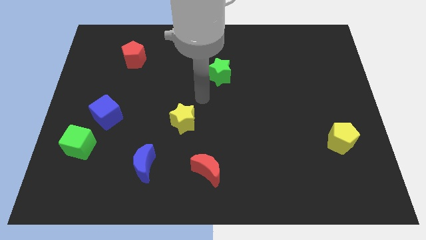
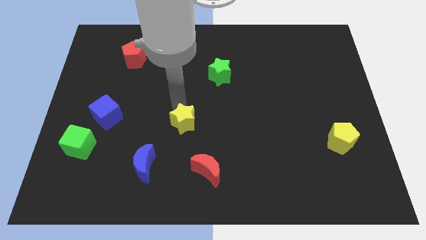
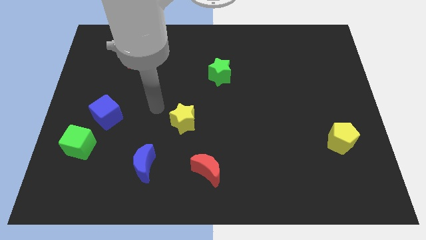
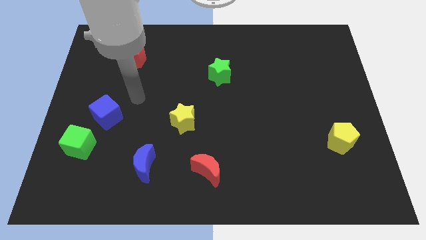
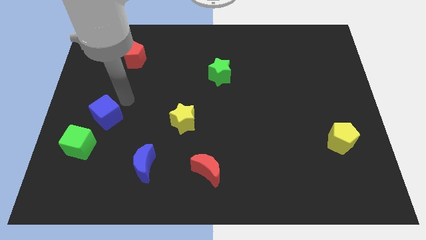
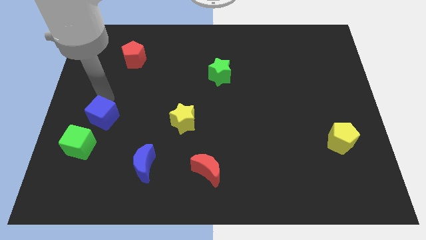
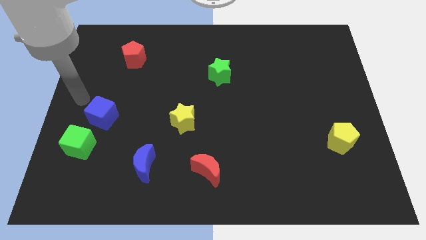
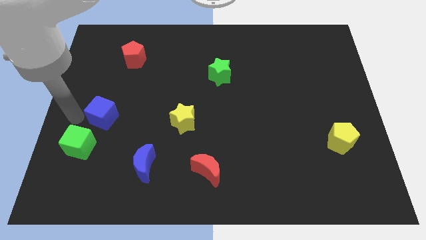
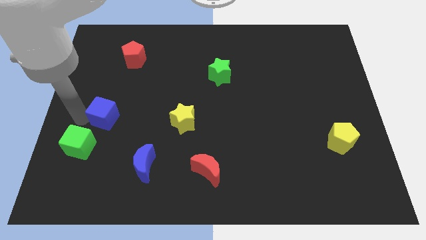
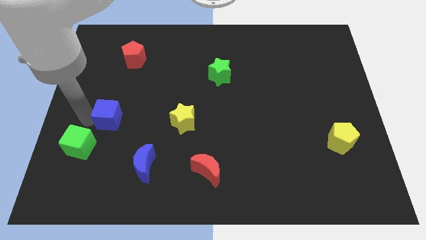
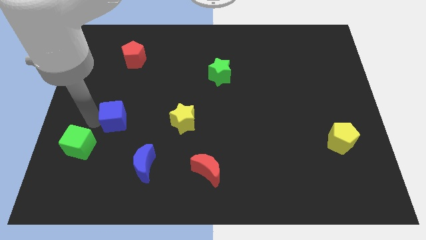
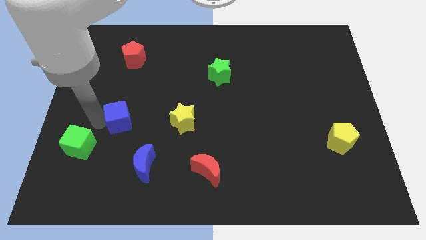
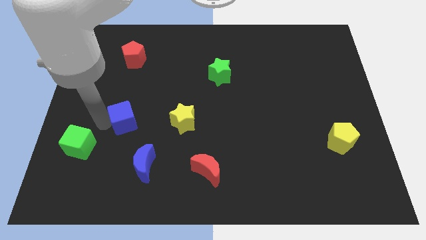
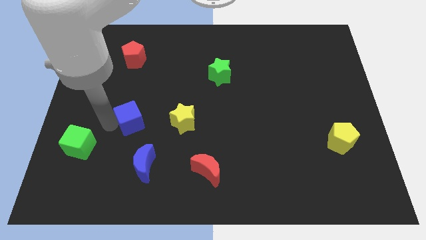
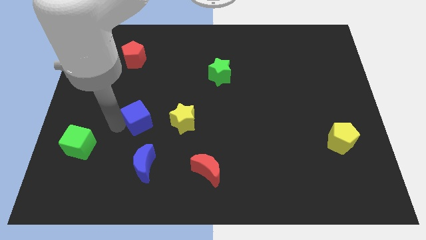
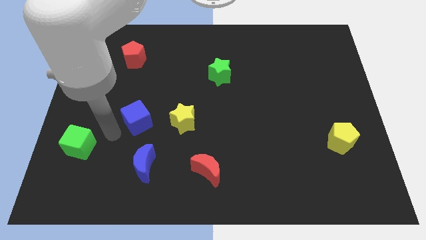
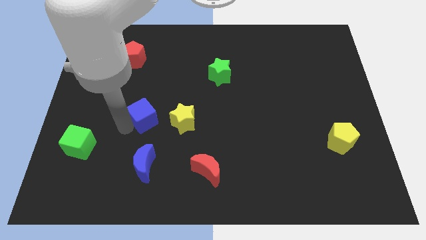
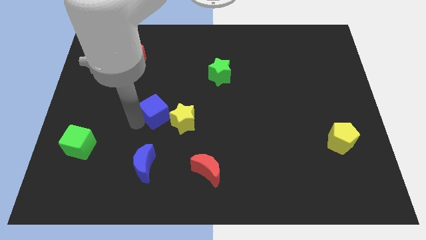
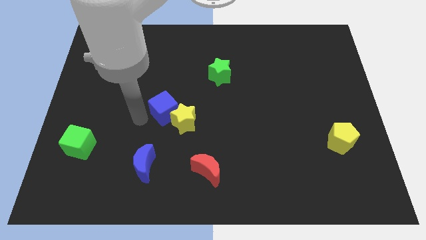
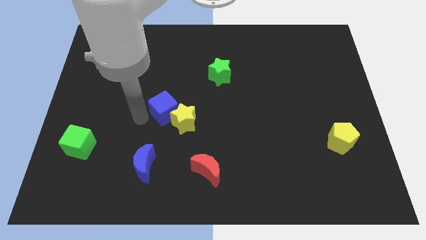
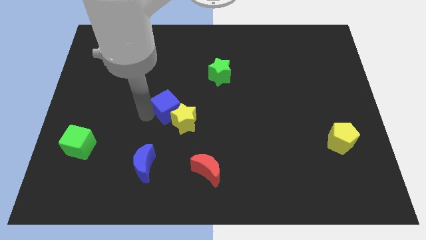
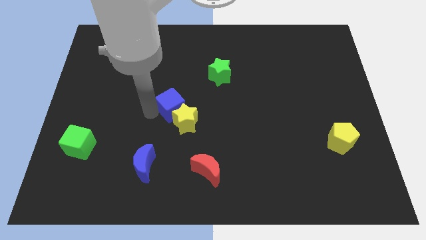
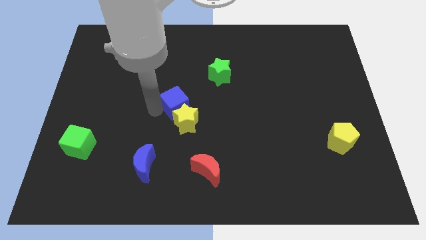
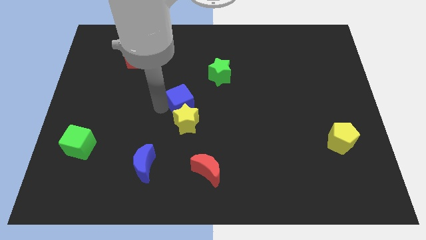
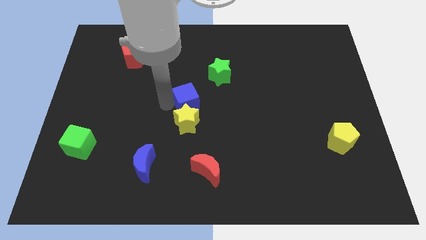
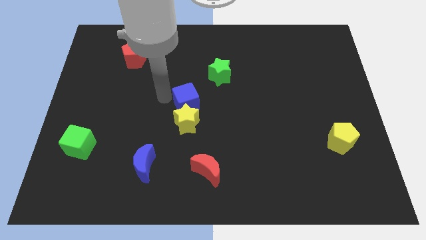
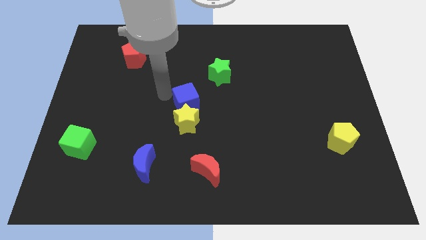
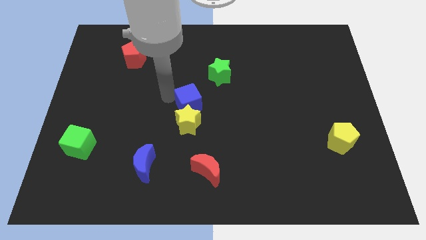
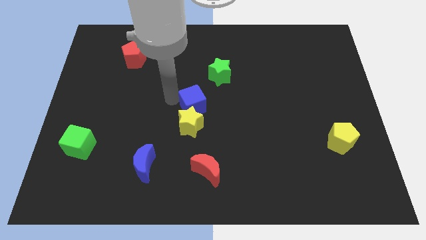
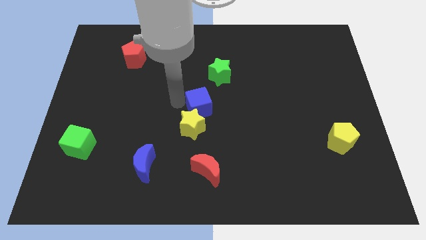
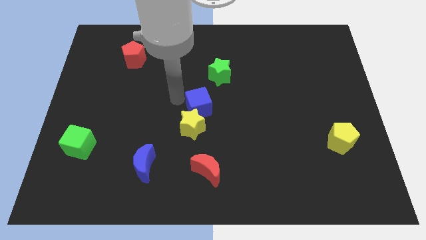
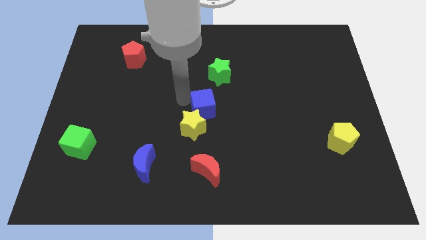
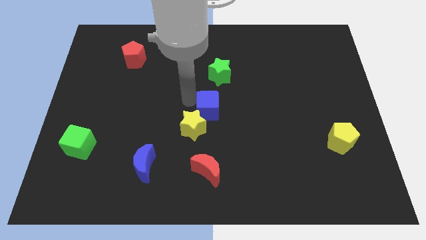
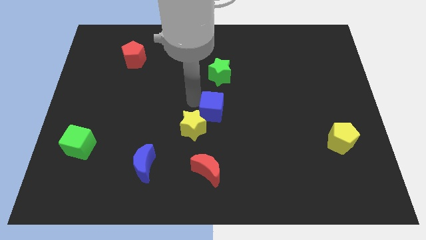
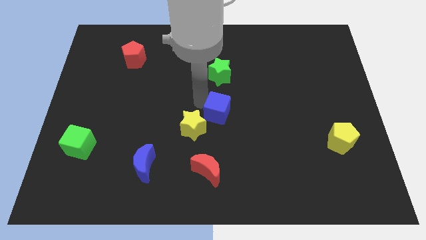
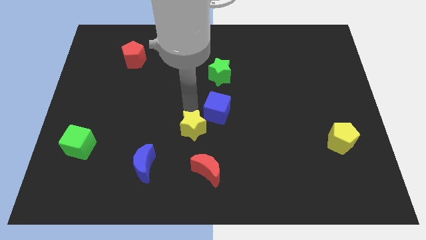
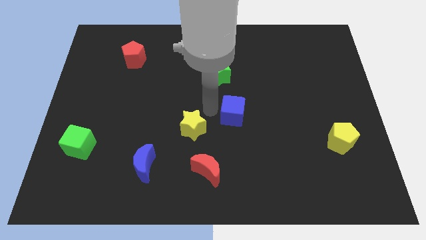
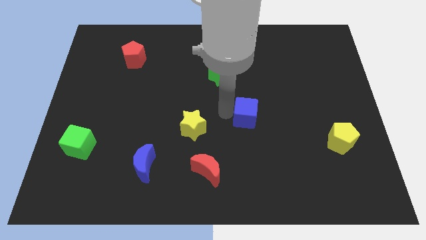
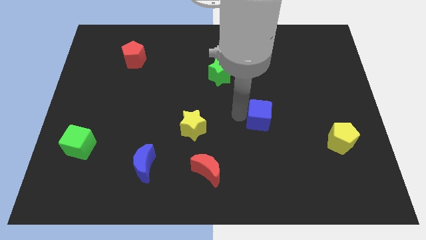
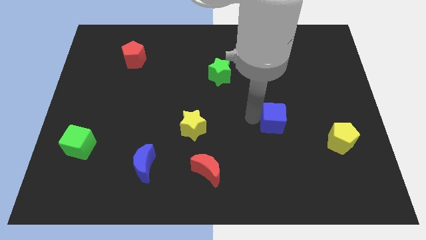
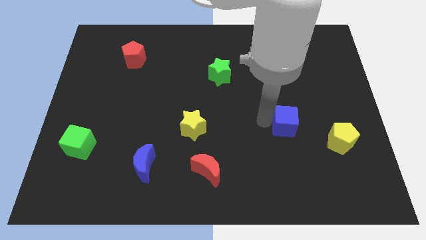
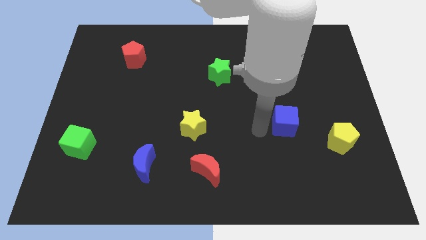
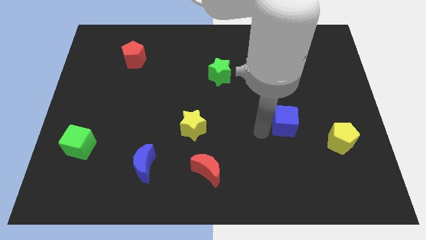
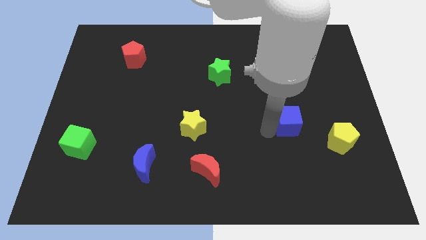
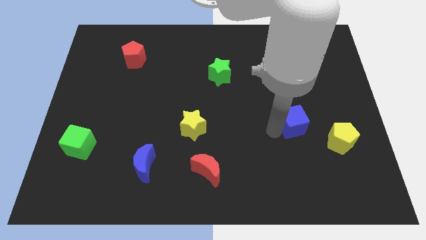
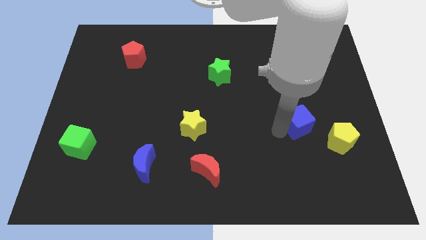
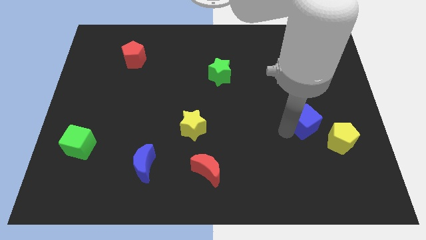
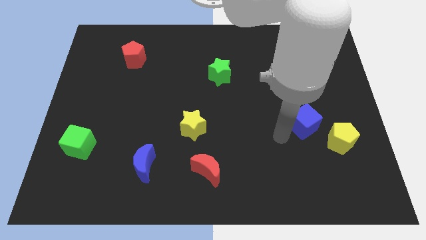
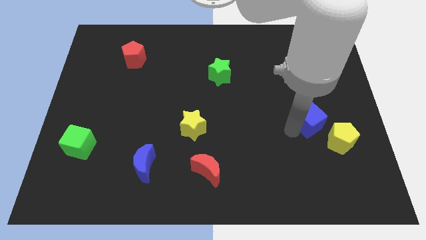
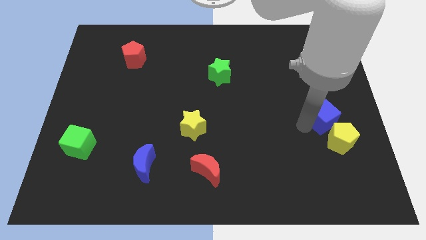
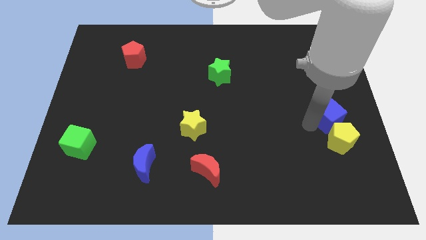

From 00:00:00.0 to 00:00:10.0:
push the blue cube to the right side of the board

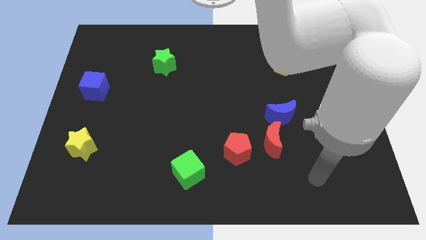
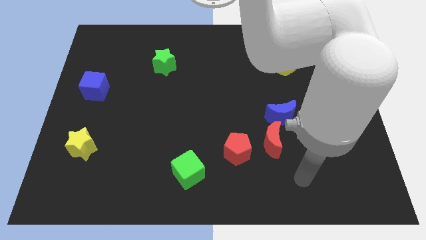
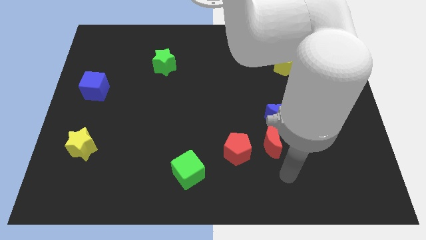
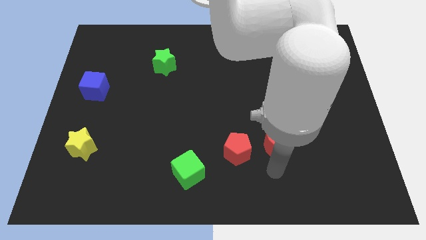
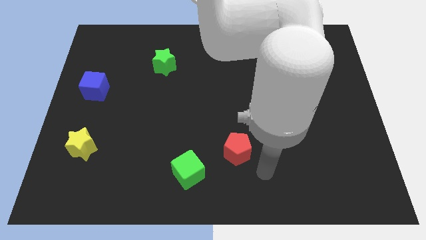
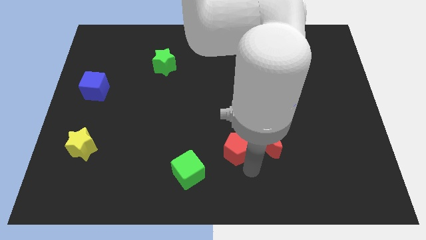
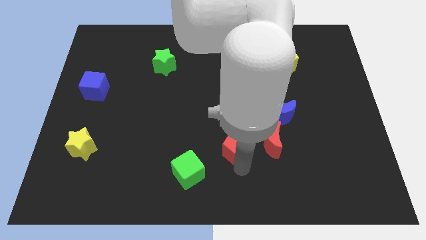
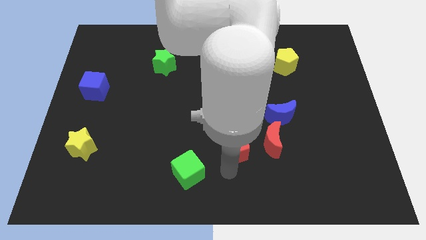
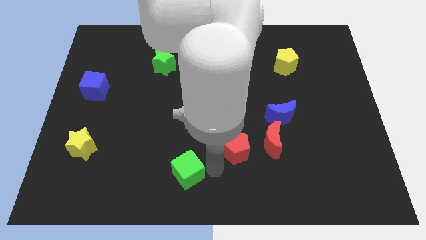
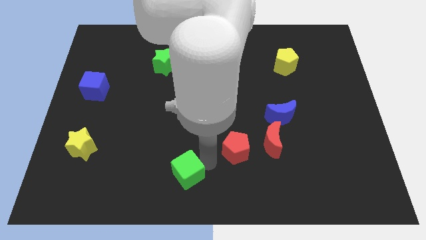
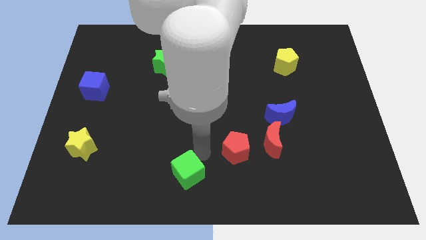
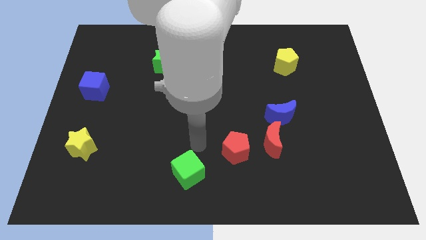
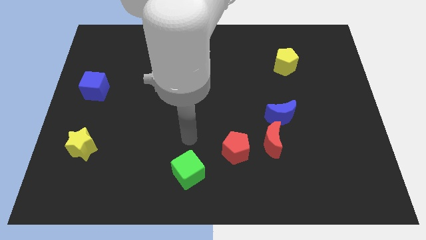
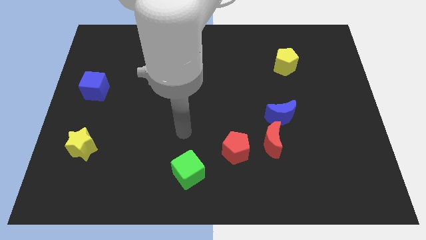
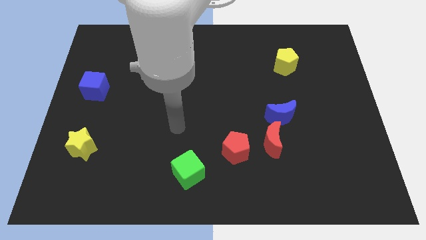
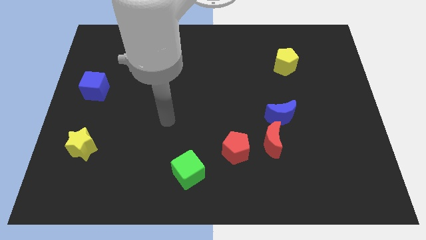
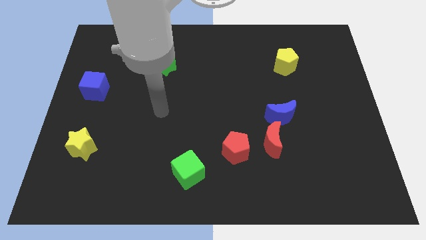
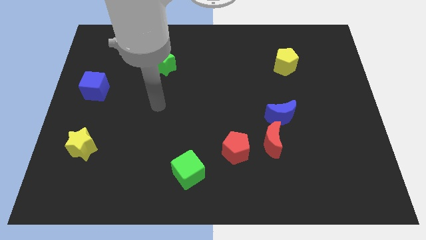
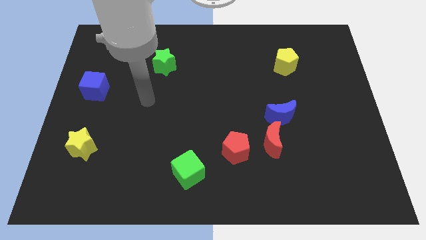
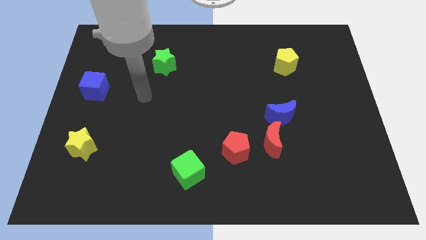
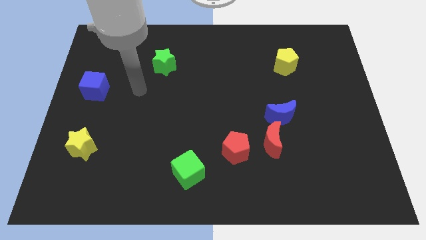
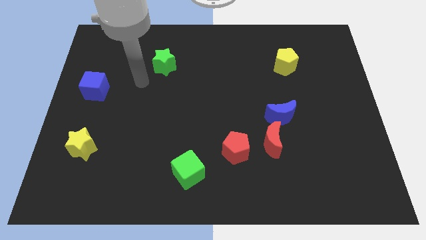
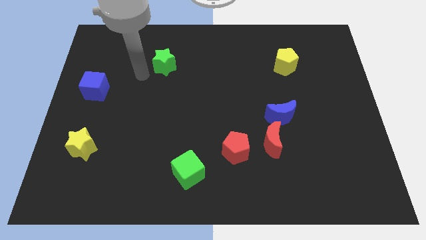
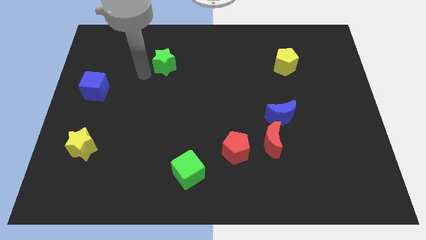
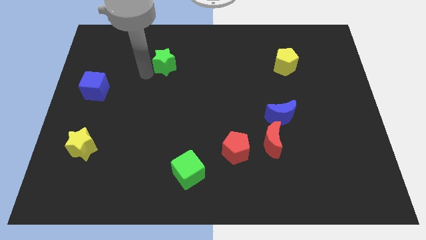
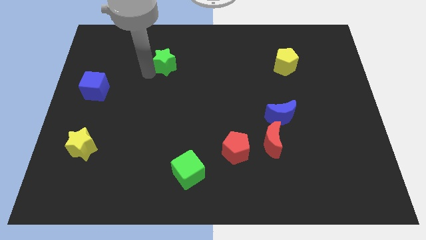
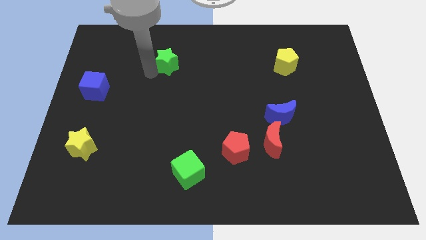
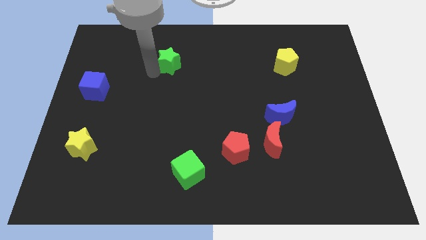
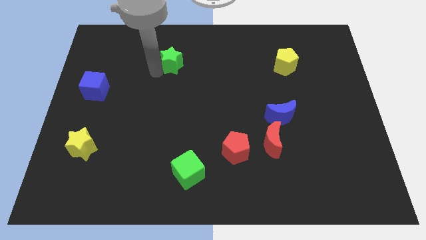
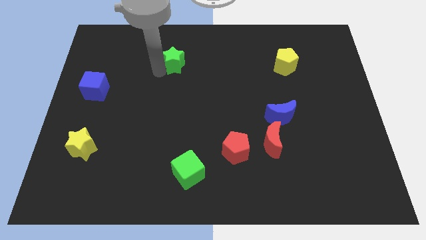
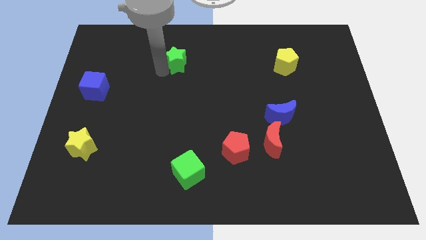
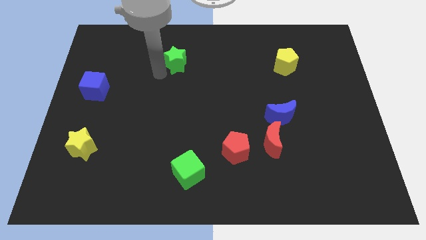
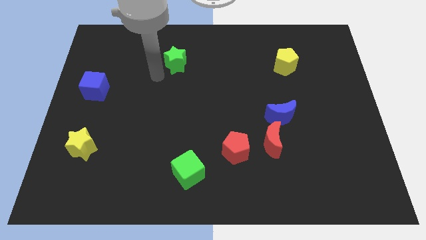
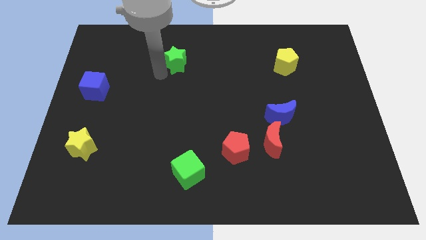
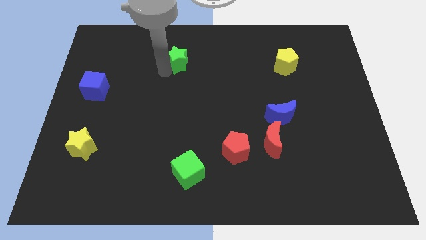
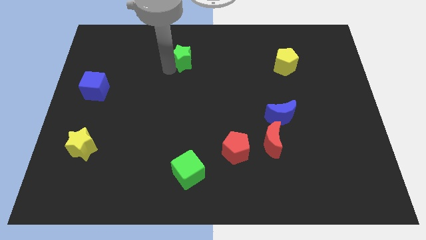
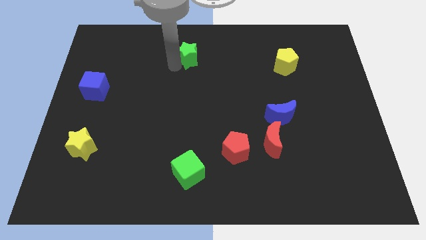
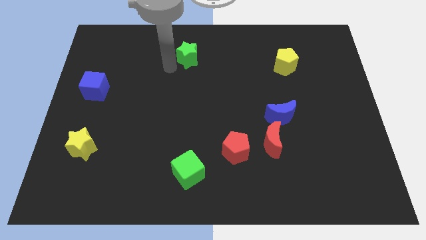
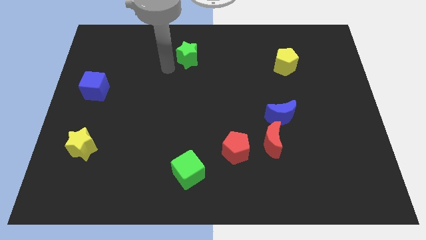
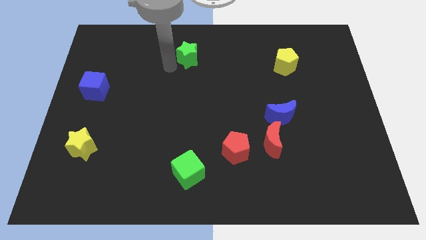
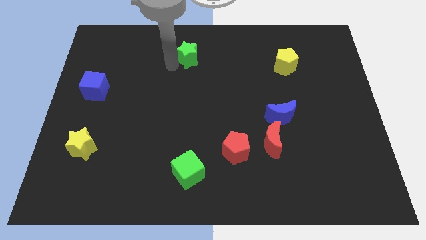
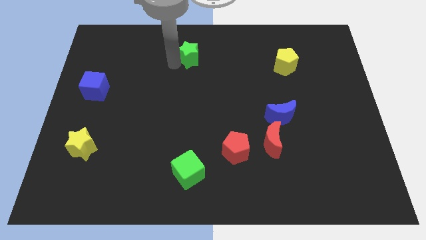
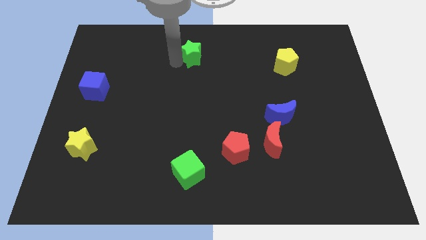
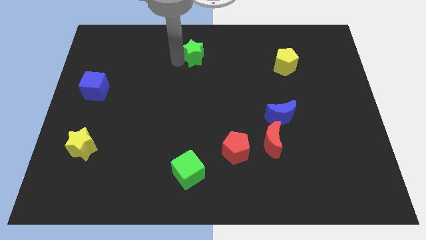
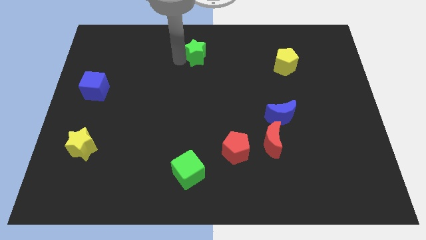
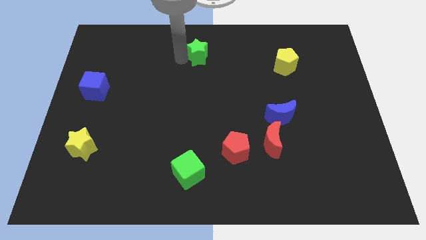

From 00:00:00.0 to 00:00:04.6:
slide the green star to the top
